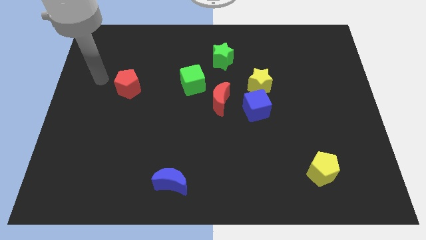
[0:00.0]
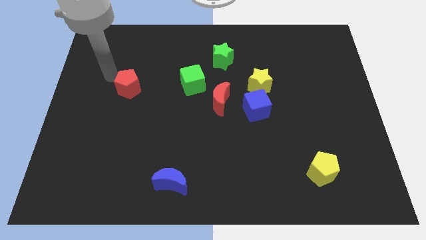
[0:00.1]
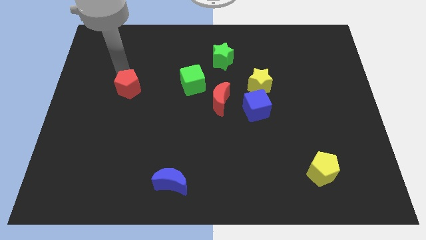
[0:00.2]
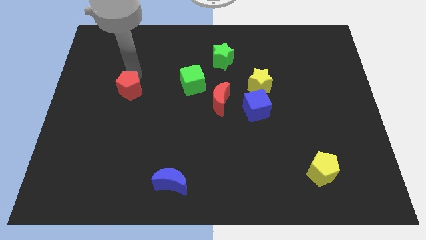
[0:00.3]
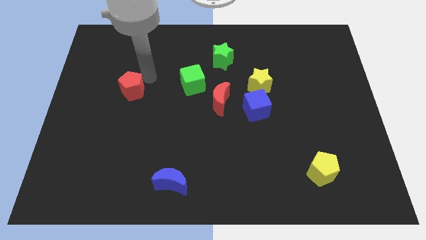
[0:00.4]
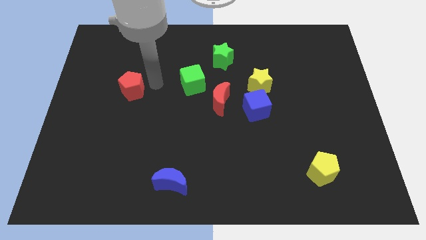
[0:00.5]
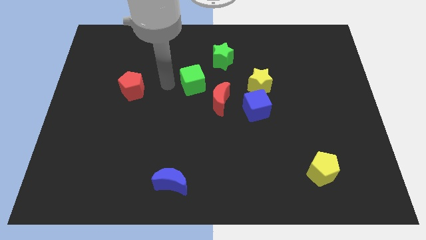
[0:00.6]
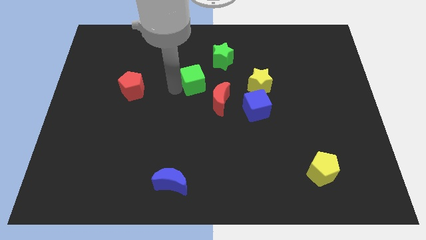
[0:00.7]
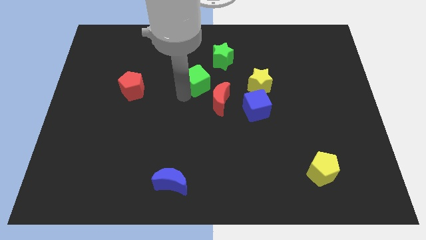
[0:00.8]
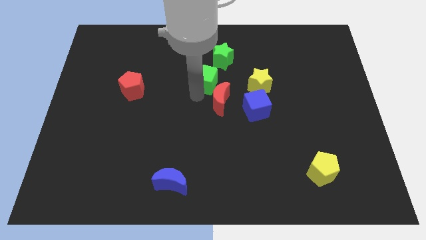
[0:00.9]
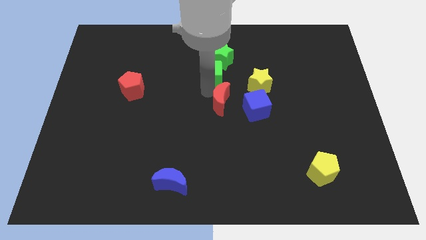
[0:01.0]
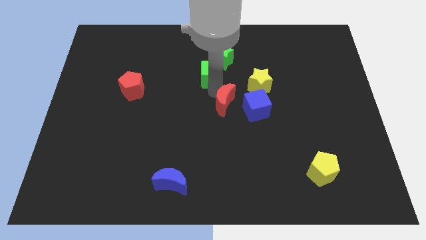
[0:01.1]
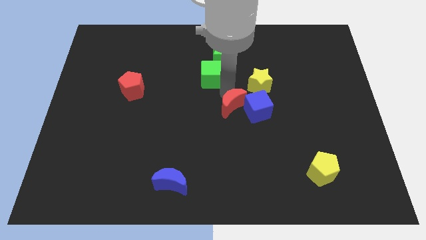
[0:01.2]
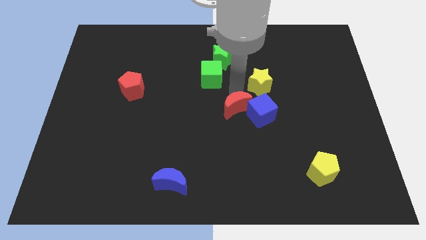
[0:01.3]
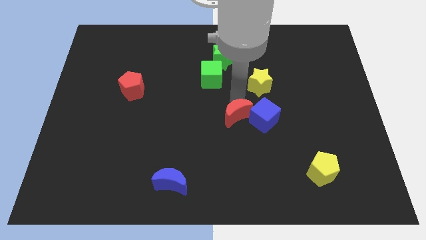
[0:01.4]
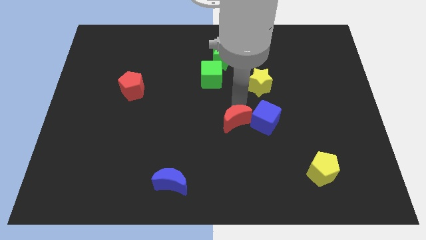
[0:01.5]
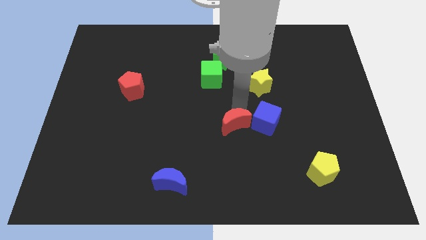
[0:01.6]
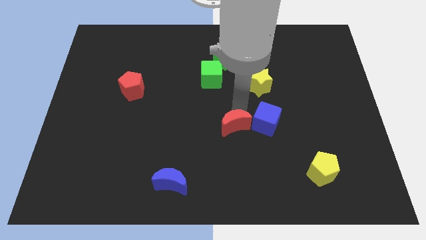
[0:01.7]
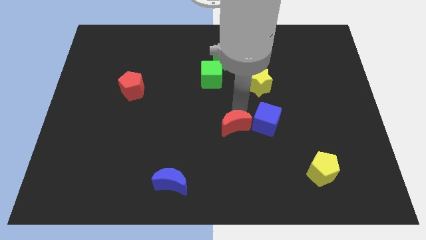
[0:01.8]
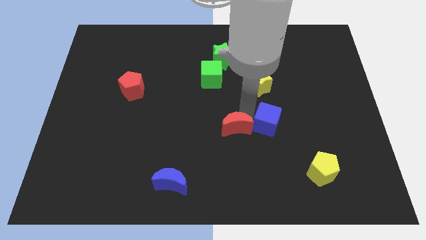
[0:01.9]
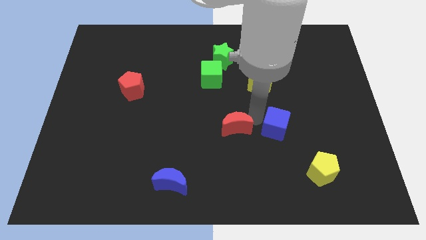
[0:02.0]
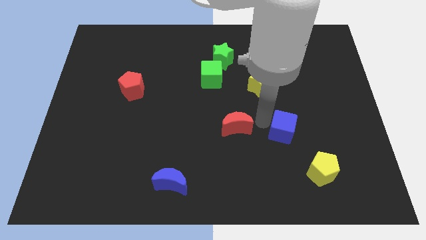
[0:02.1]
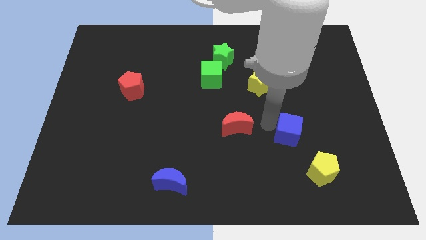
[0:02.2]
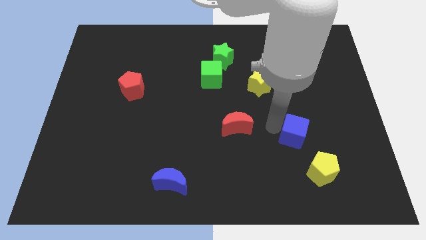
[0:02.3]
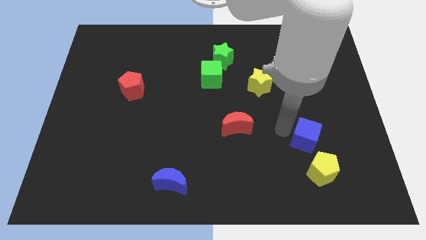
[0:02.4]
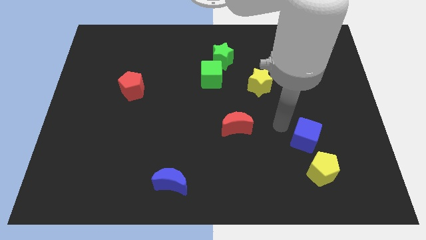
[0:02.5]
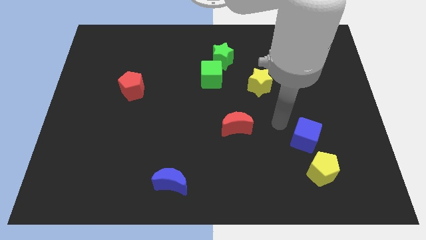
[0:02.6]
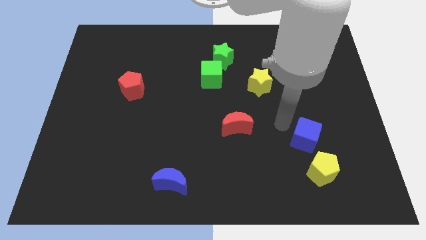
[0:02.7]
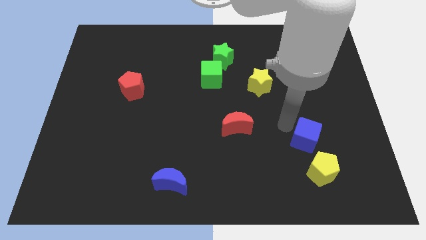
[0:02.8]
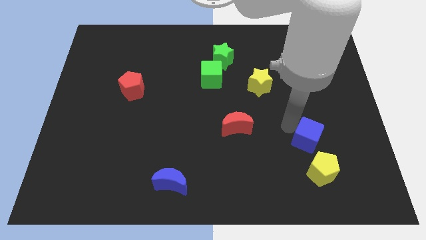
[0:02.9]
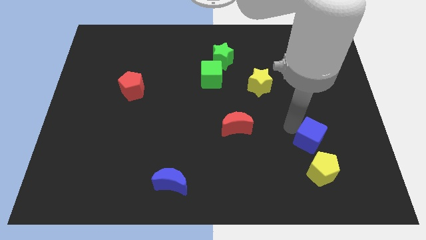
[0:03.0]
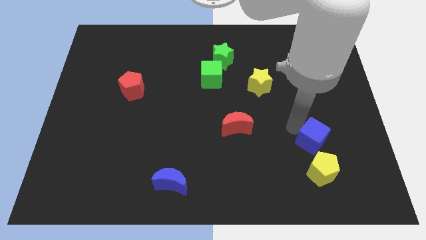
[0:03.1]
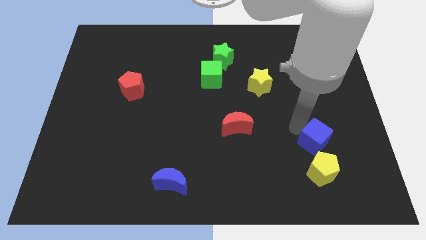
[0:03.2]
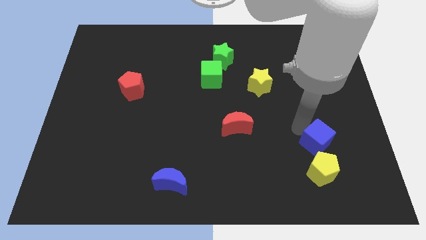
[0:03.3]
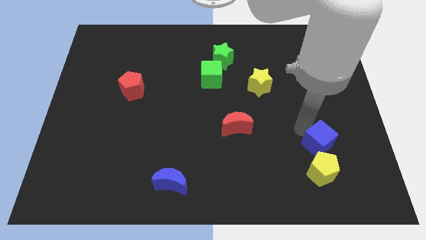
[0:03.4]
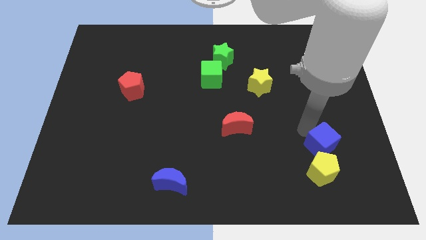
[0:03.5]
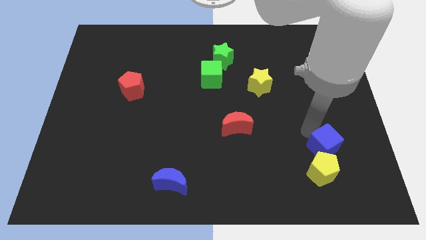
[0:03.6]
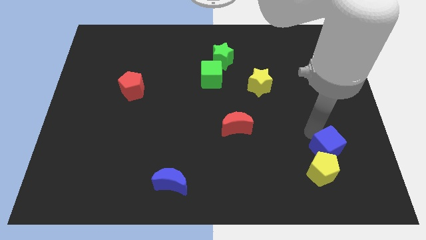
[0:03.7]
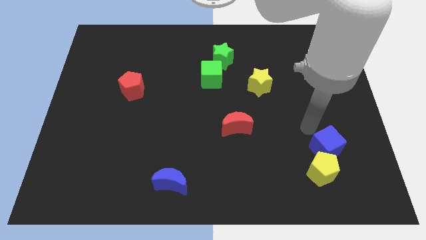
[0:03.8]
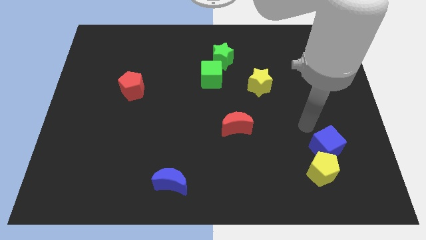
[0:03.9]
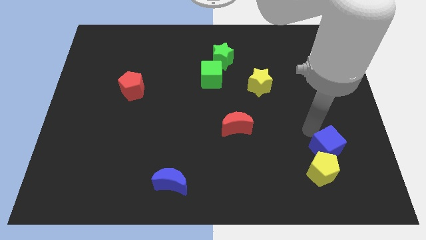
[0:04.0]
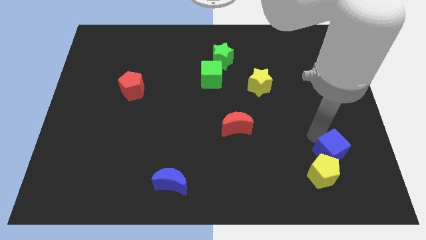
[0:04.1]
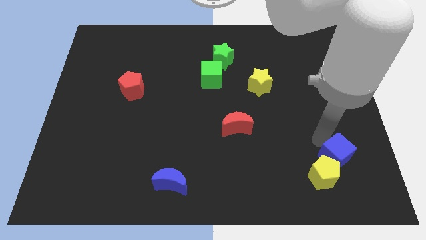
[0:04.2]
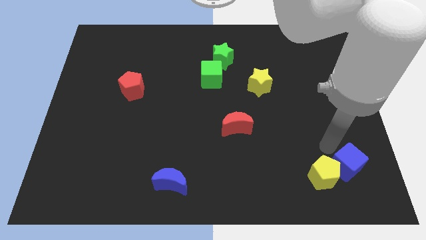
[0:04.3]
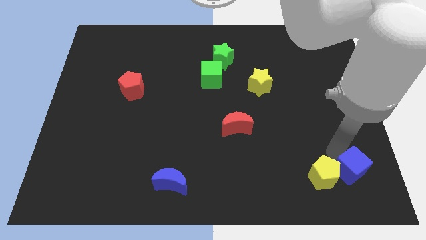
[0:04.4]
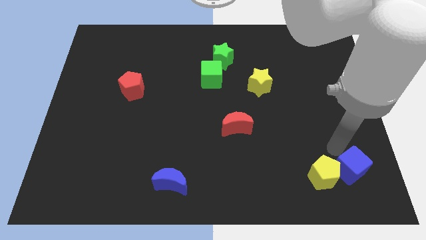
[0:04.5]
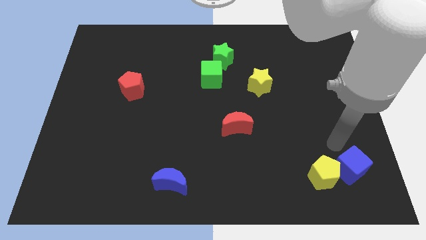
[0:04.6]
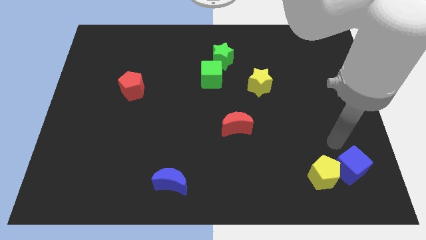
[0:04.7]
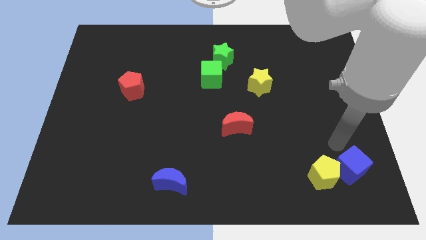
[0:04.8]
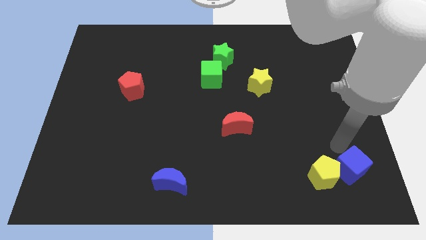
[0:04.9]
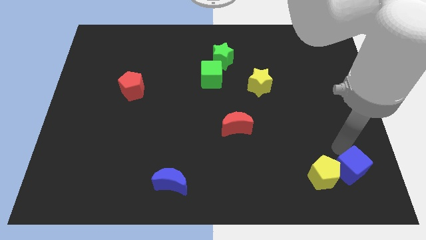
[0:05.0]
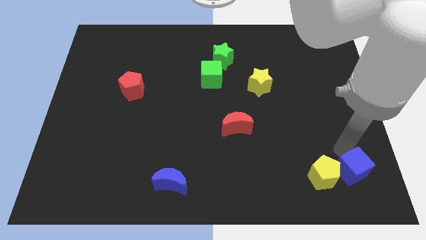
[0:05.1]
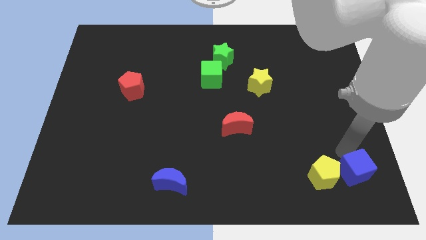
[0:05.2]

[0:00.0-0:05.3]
push the blue cube to the bottom right corner

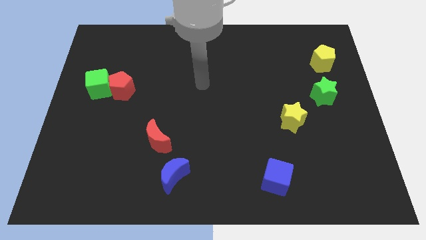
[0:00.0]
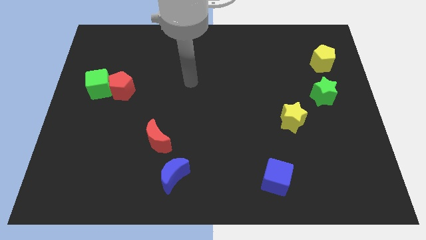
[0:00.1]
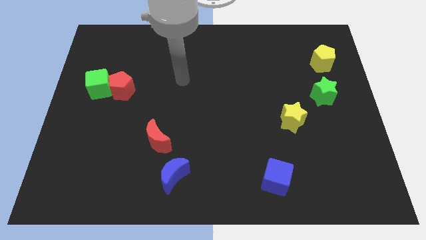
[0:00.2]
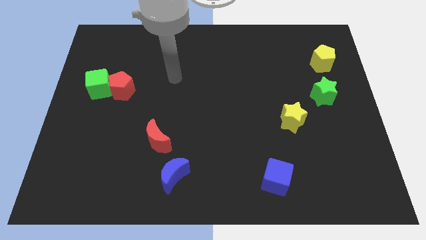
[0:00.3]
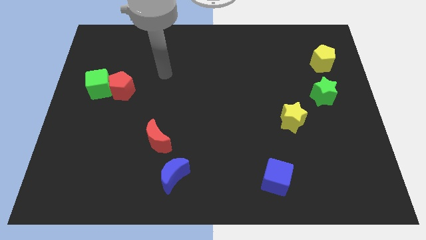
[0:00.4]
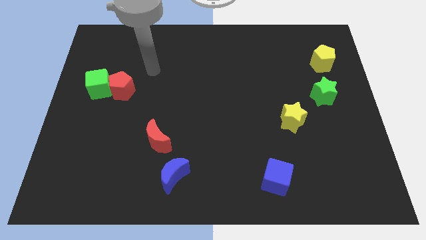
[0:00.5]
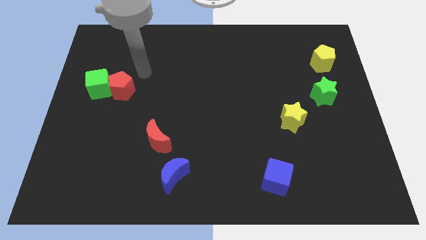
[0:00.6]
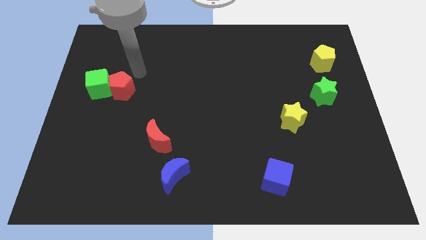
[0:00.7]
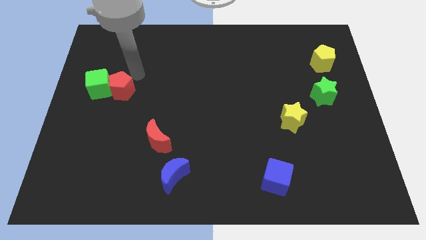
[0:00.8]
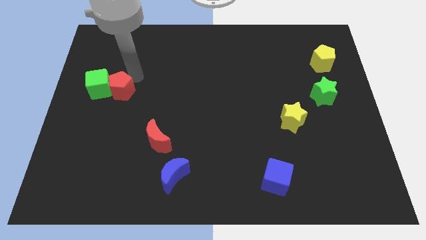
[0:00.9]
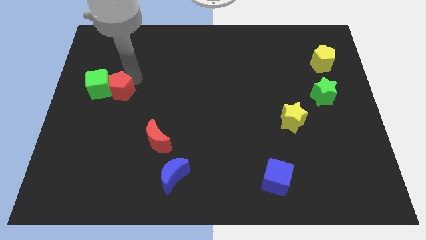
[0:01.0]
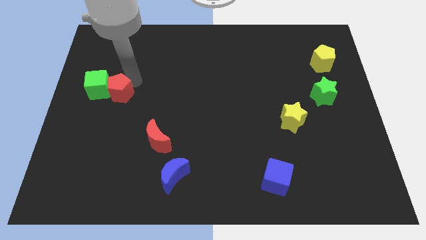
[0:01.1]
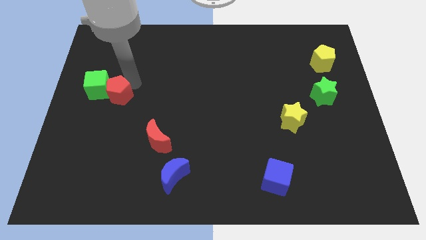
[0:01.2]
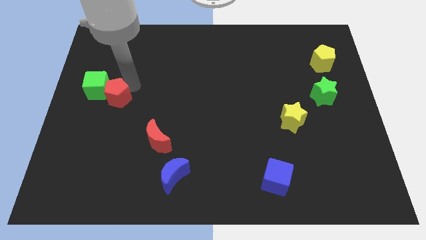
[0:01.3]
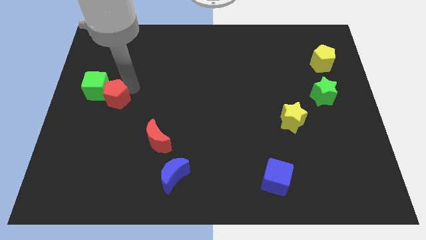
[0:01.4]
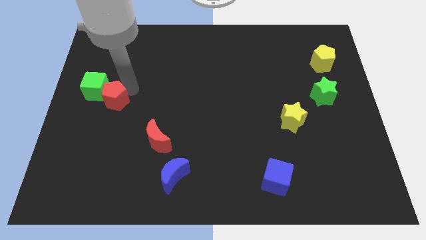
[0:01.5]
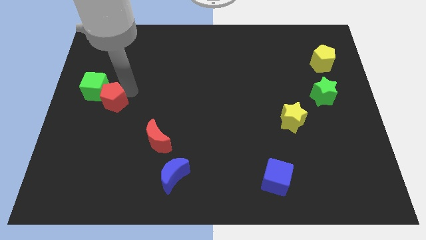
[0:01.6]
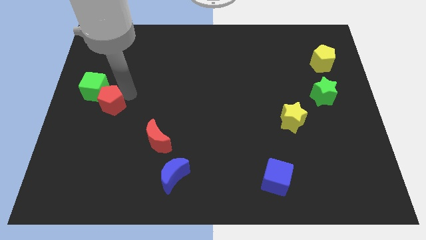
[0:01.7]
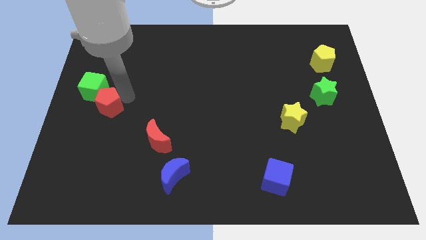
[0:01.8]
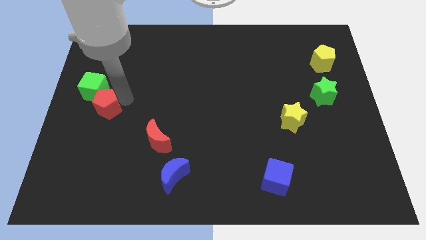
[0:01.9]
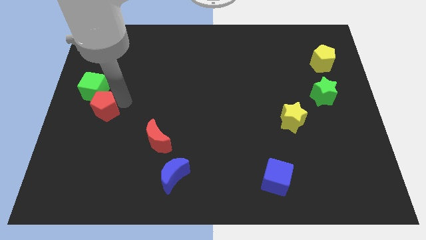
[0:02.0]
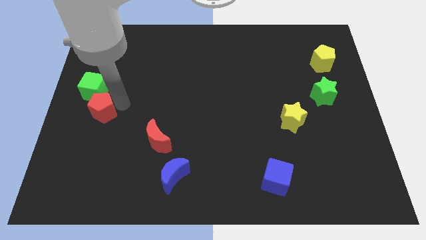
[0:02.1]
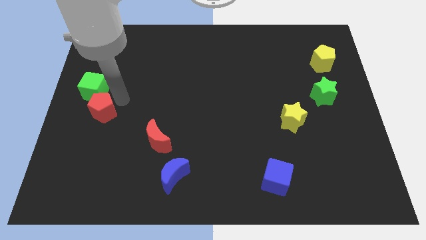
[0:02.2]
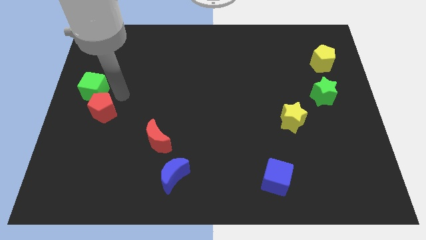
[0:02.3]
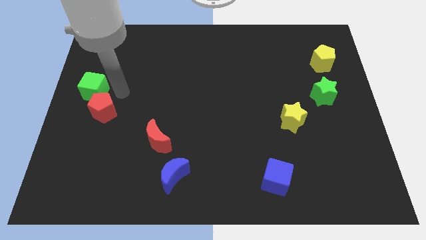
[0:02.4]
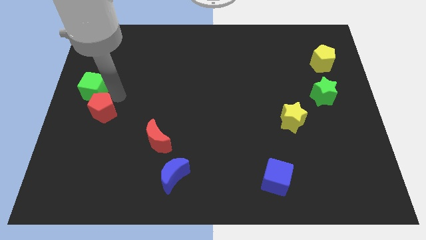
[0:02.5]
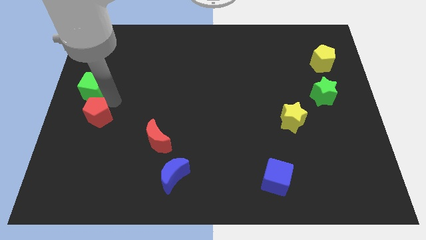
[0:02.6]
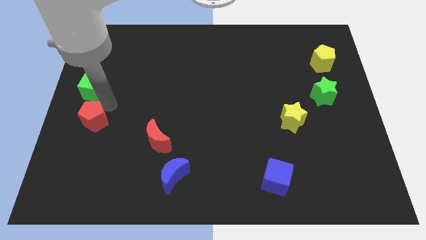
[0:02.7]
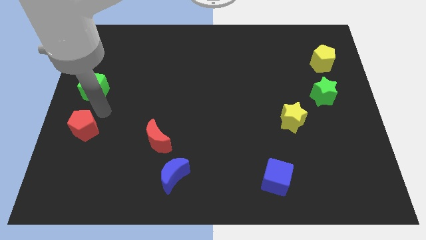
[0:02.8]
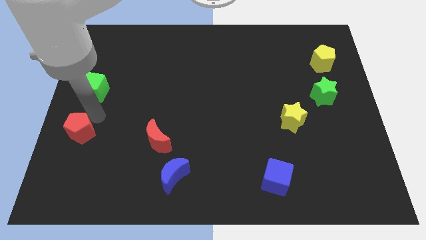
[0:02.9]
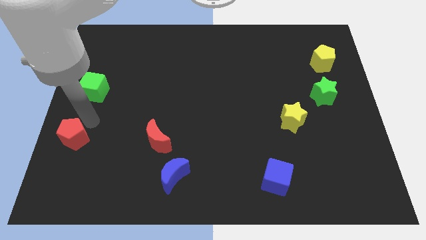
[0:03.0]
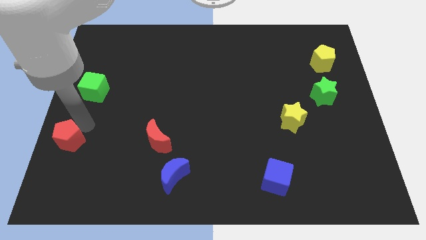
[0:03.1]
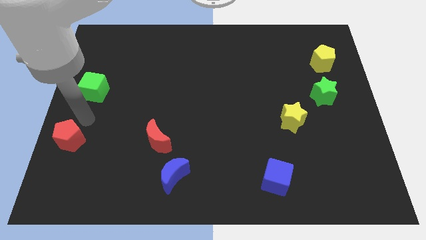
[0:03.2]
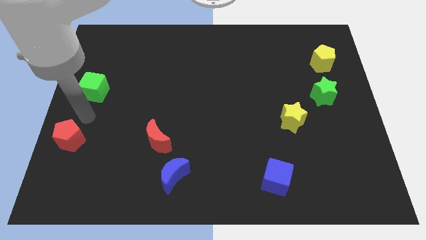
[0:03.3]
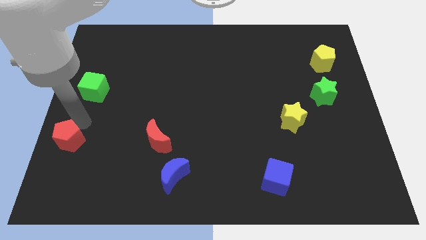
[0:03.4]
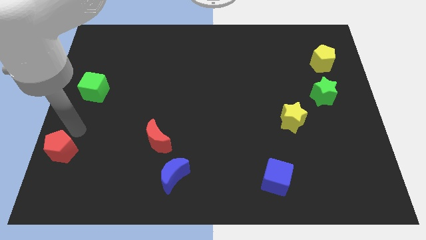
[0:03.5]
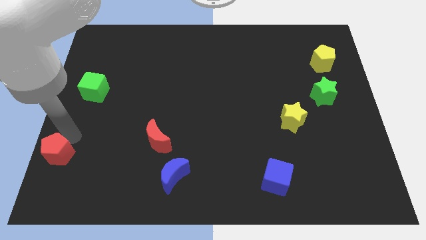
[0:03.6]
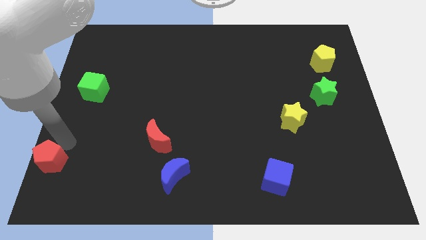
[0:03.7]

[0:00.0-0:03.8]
move the red pentagon to the bottom left of the board
